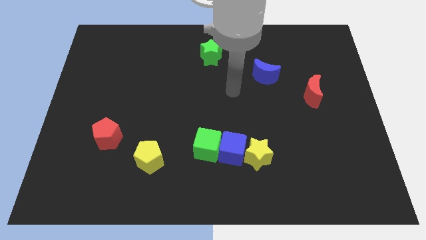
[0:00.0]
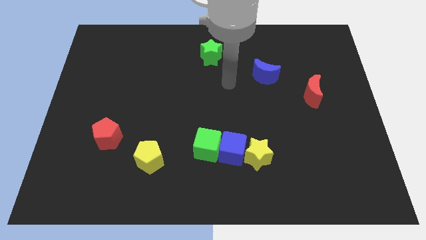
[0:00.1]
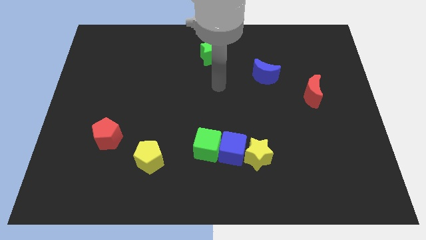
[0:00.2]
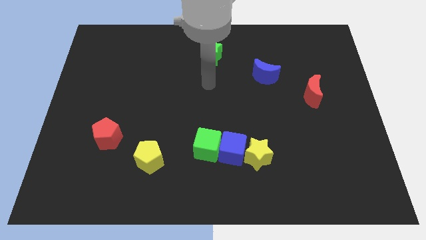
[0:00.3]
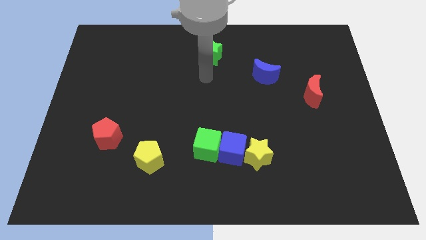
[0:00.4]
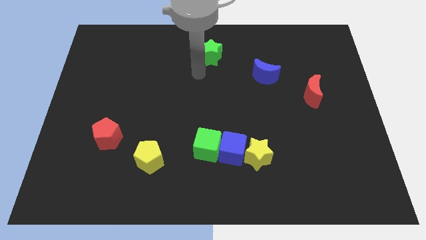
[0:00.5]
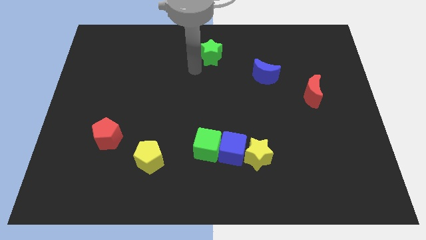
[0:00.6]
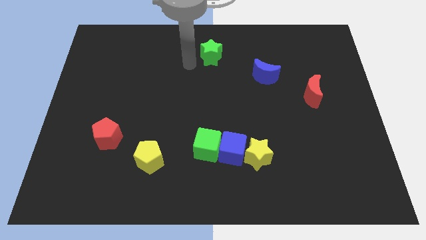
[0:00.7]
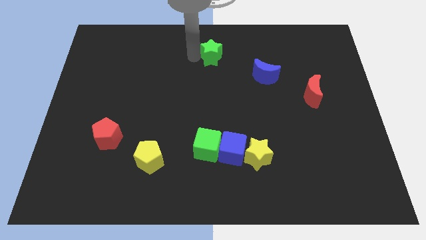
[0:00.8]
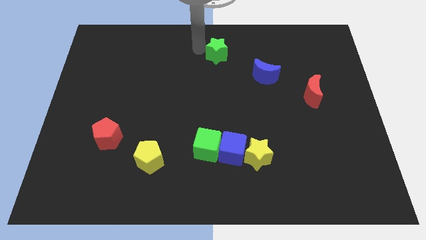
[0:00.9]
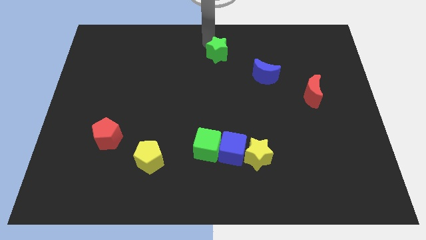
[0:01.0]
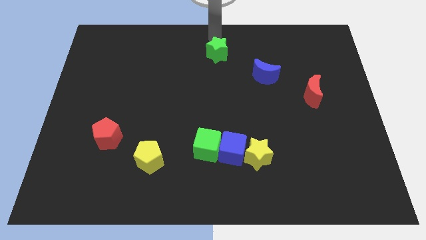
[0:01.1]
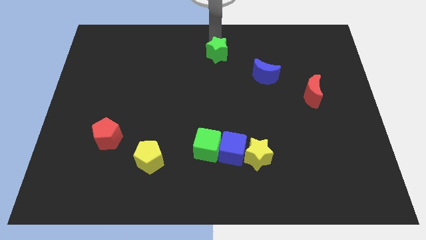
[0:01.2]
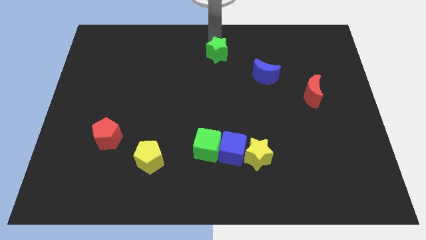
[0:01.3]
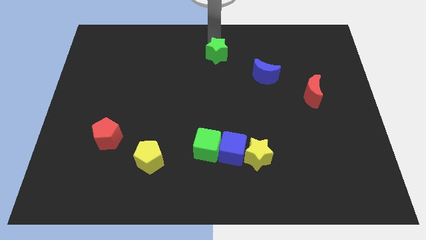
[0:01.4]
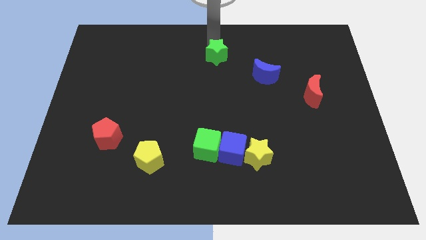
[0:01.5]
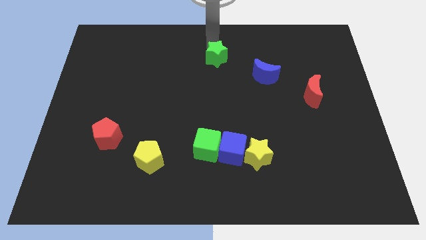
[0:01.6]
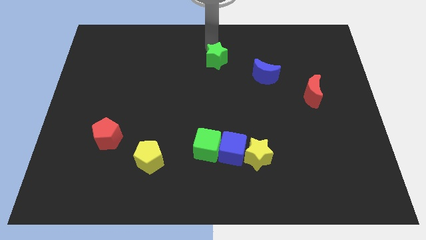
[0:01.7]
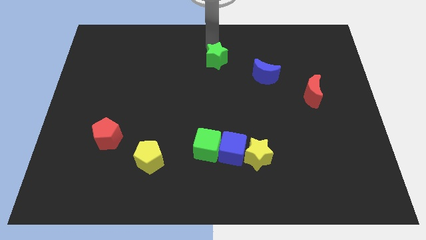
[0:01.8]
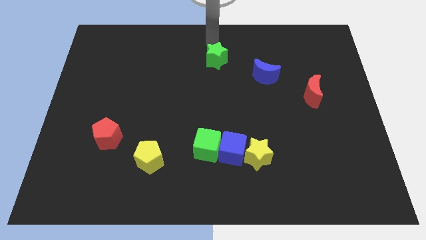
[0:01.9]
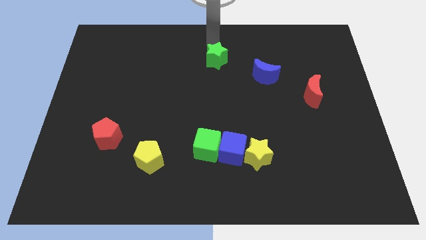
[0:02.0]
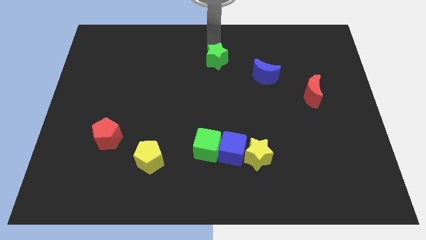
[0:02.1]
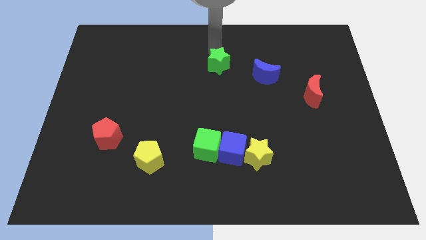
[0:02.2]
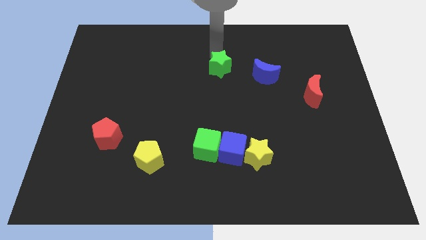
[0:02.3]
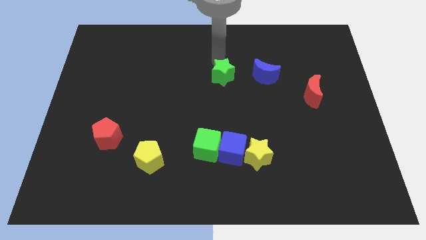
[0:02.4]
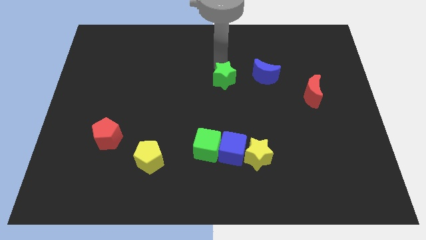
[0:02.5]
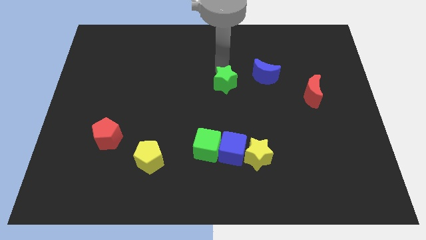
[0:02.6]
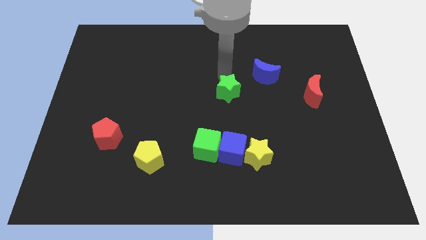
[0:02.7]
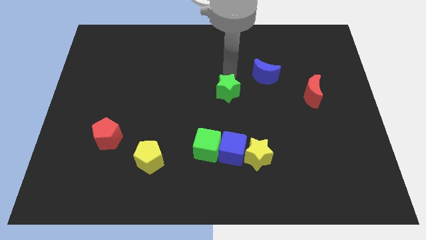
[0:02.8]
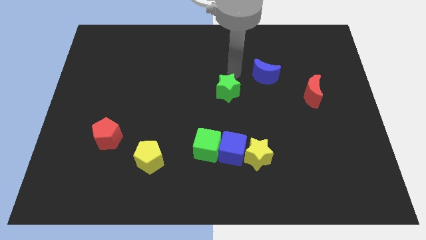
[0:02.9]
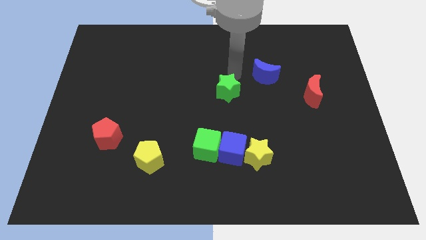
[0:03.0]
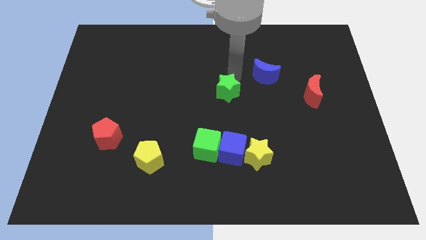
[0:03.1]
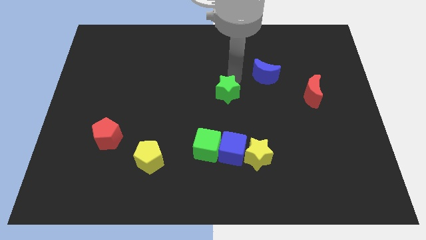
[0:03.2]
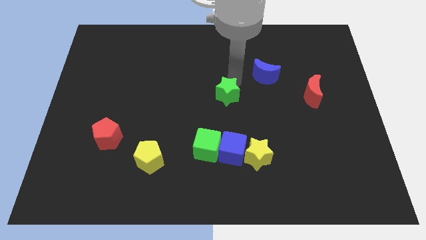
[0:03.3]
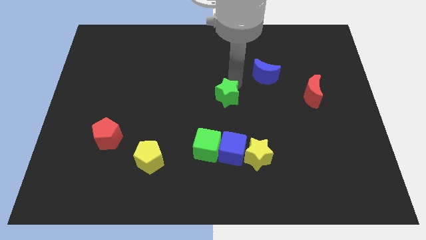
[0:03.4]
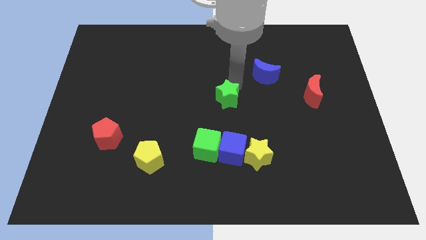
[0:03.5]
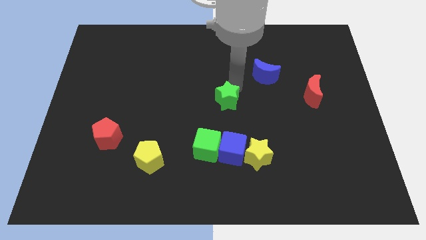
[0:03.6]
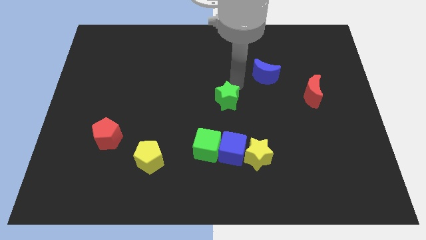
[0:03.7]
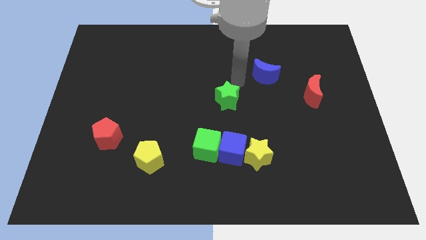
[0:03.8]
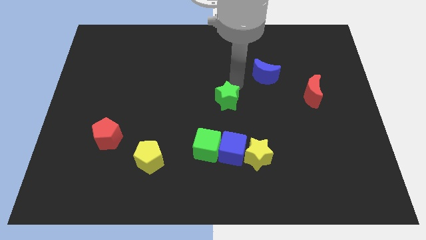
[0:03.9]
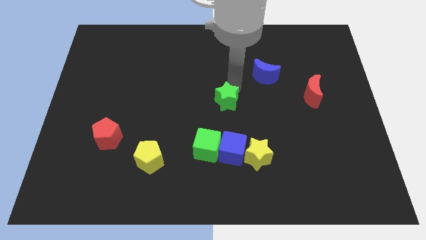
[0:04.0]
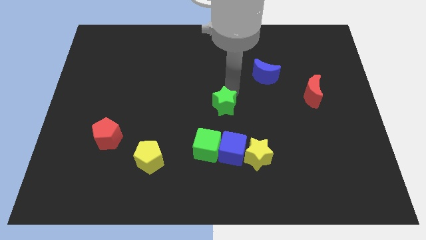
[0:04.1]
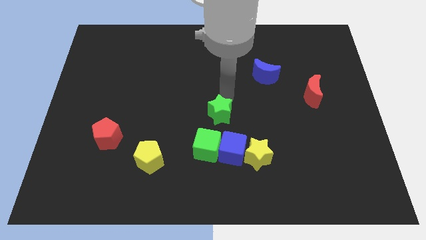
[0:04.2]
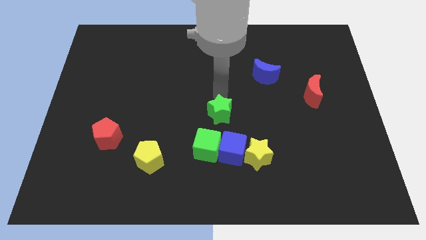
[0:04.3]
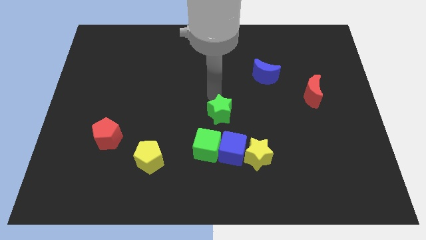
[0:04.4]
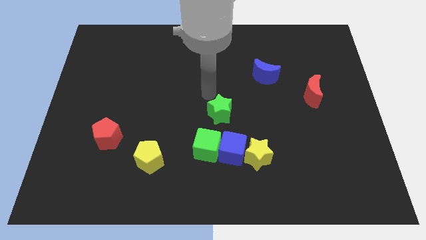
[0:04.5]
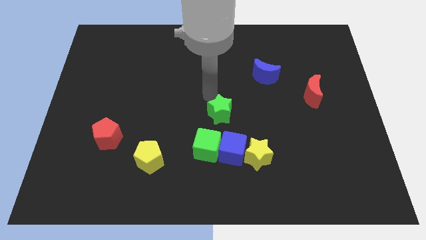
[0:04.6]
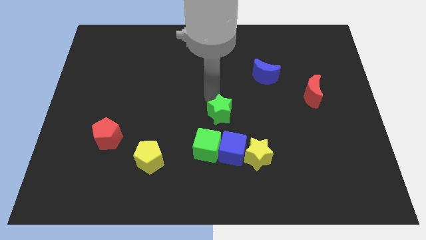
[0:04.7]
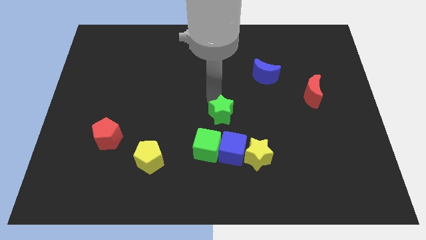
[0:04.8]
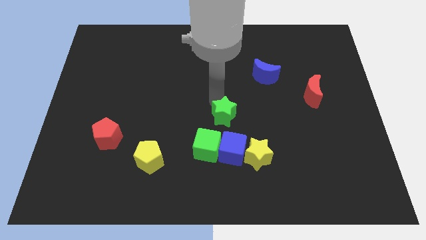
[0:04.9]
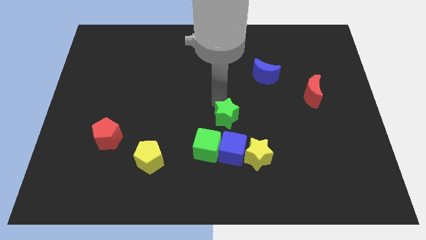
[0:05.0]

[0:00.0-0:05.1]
put the green star diagonally up and to the left of the yellow star
